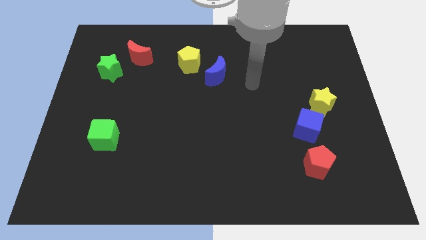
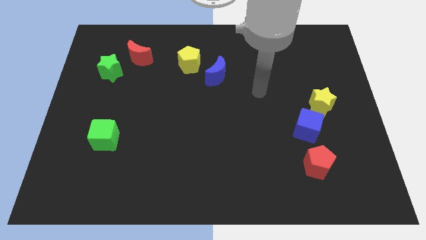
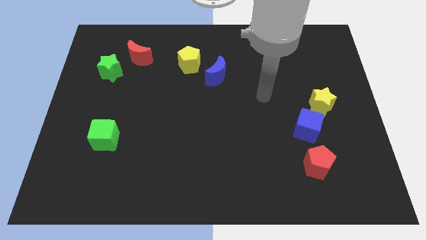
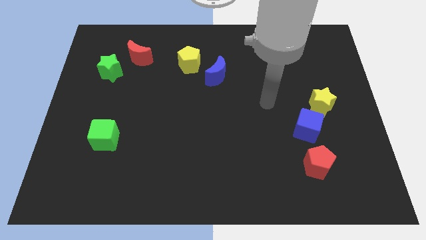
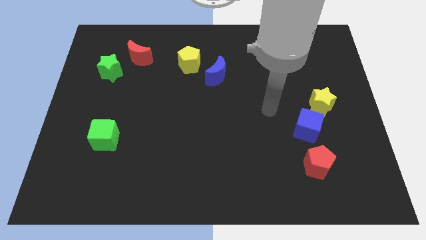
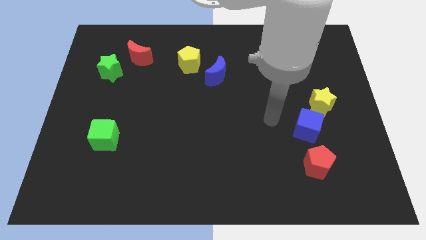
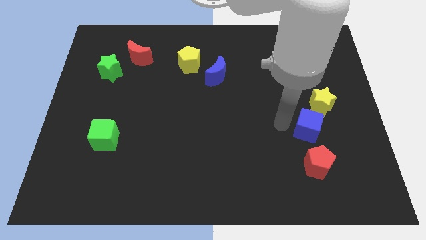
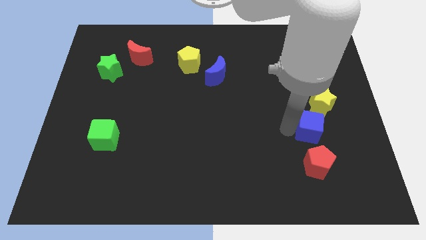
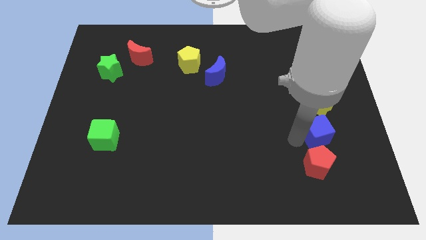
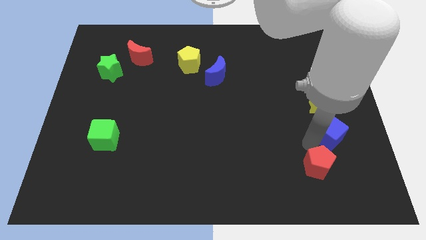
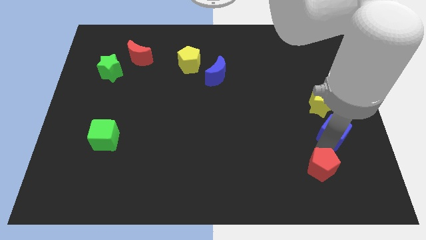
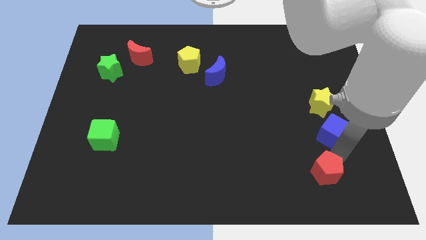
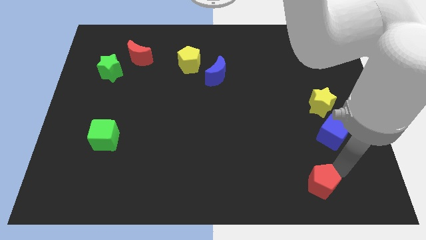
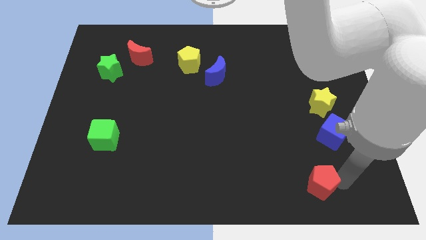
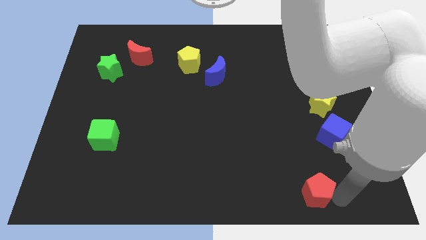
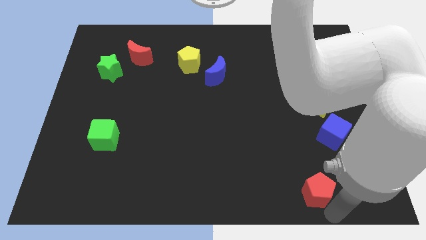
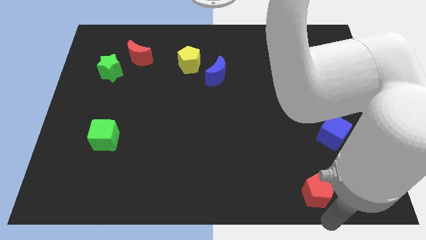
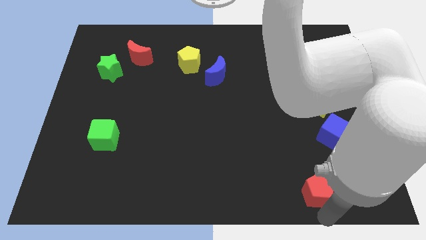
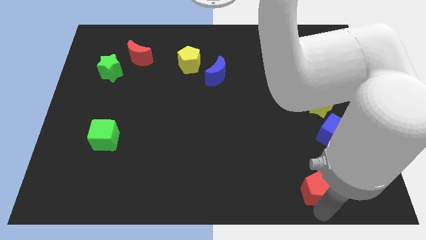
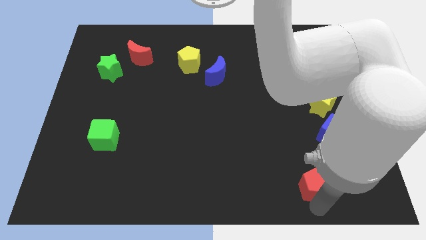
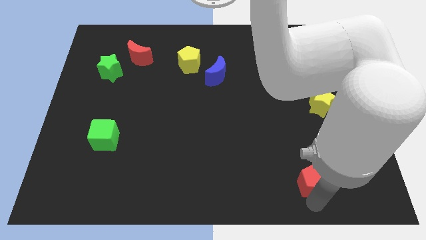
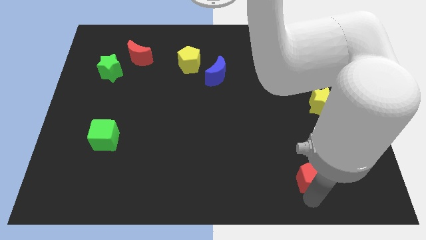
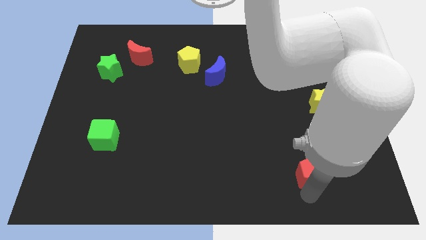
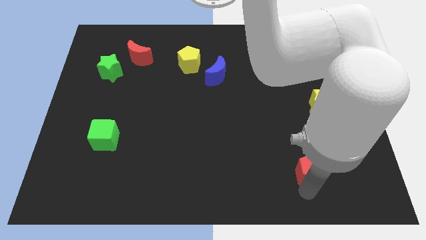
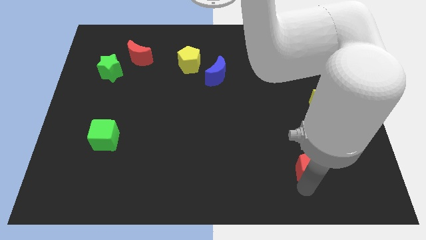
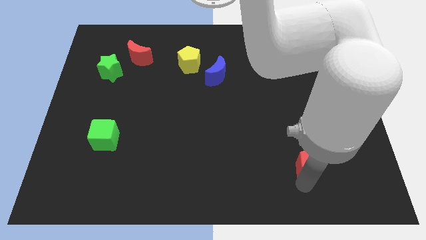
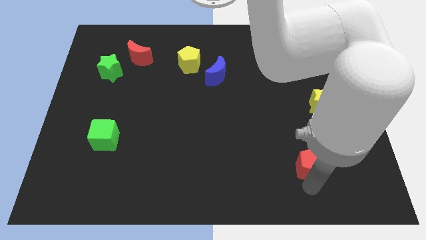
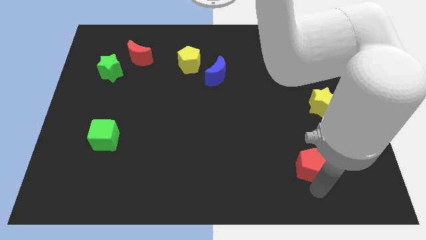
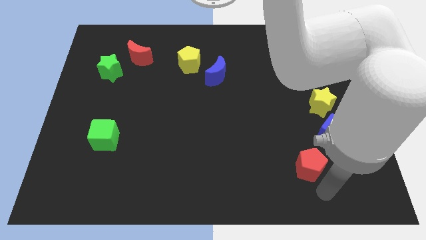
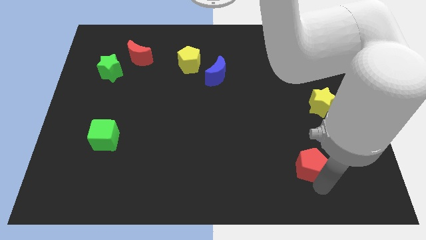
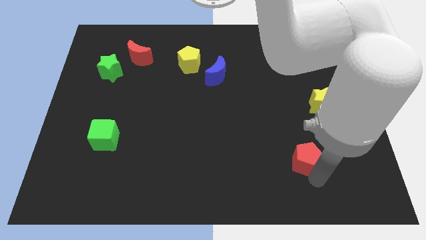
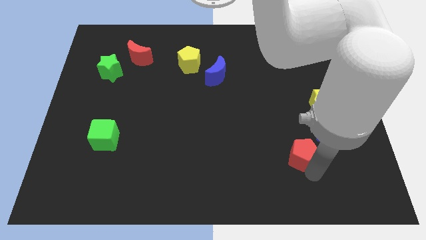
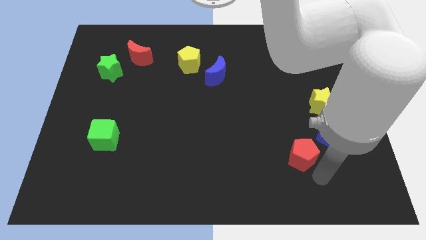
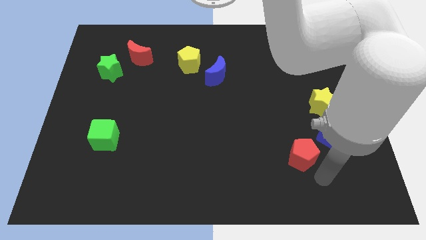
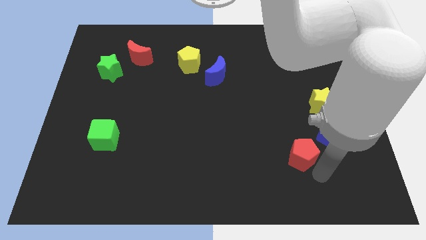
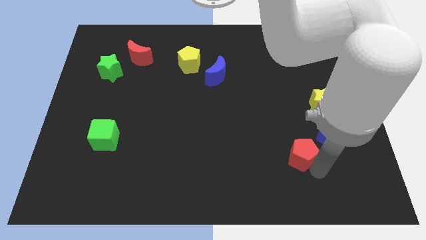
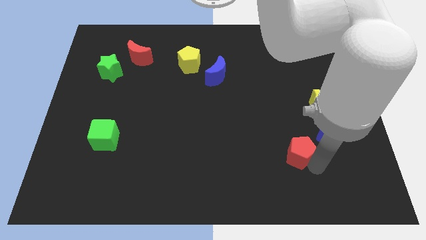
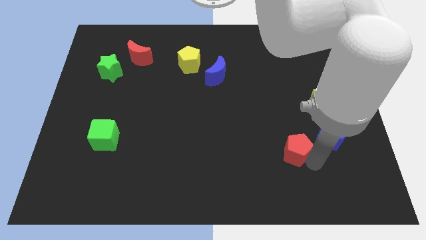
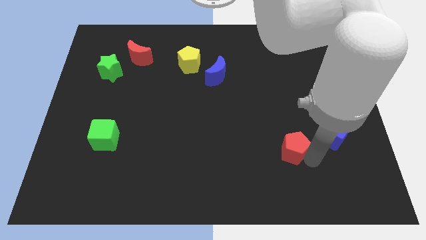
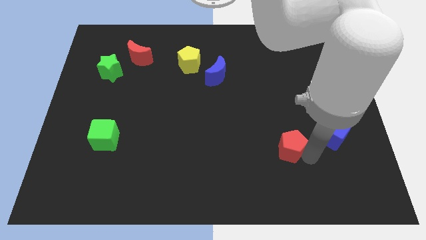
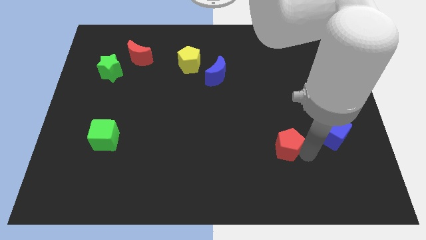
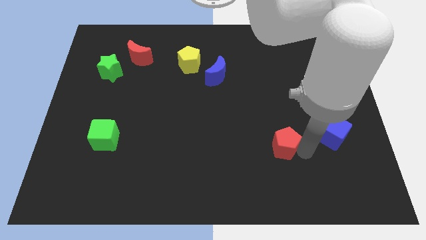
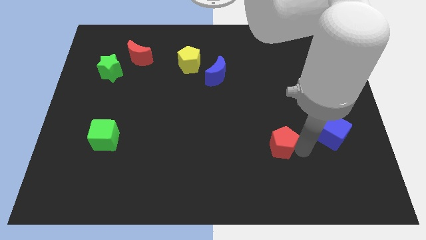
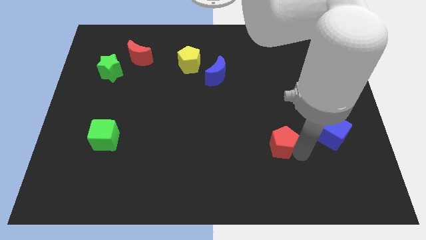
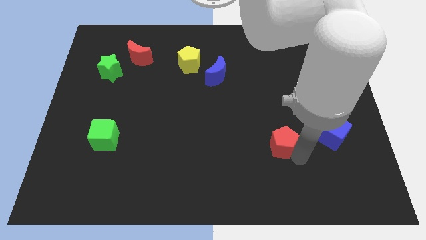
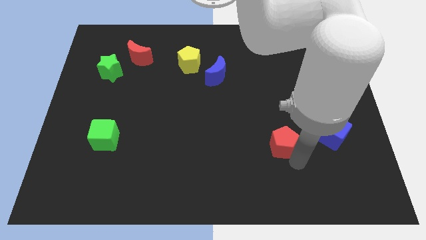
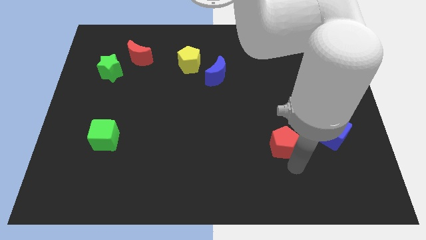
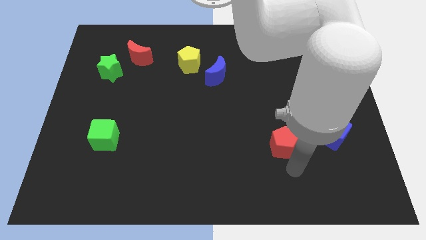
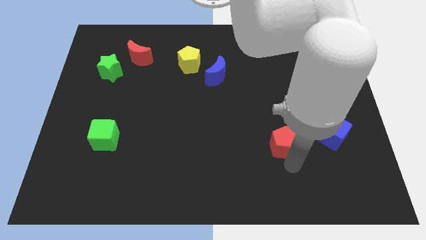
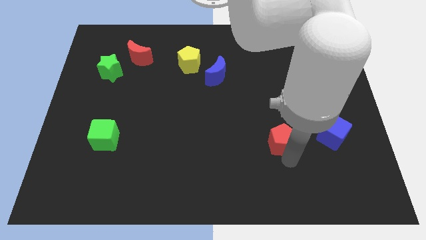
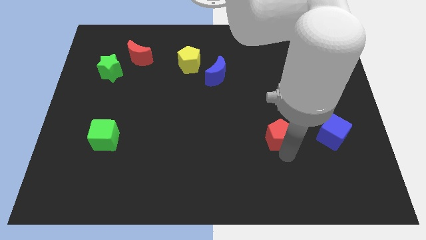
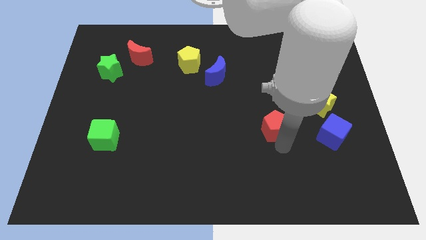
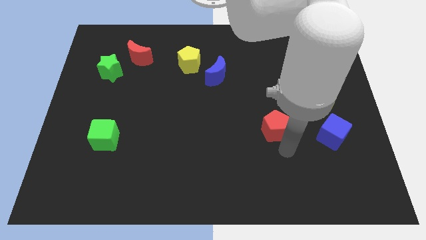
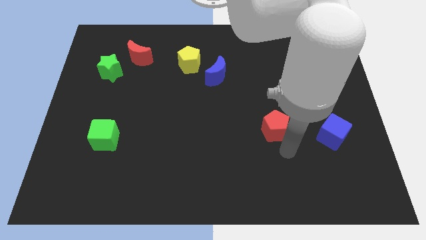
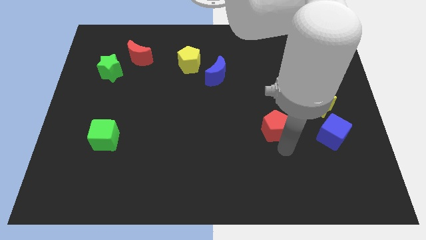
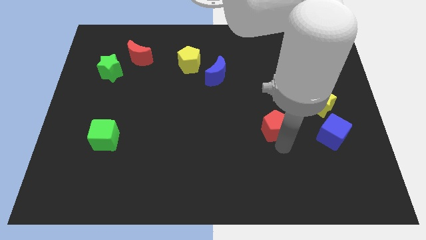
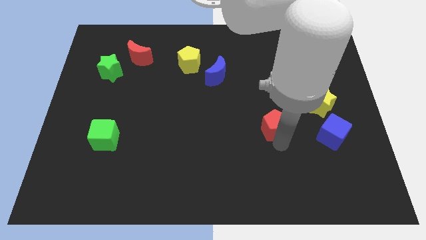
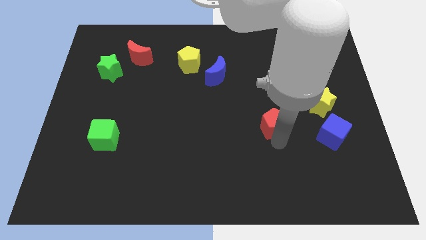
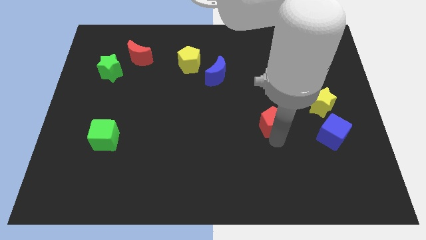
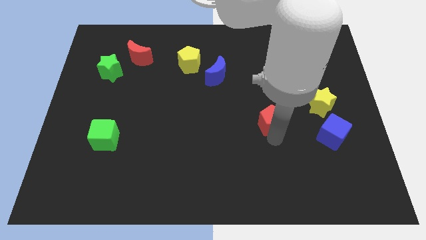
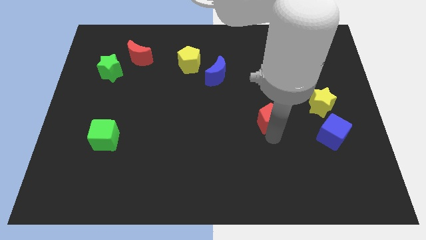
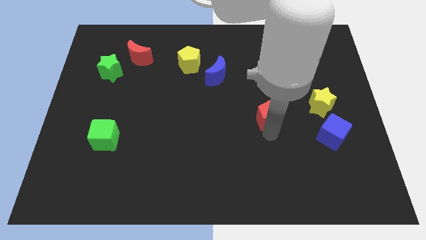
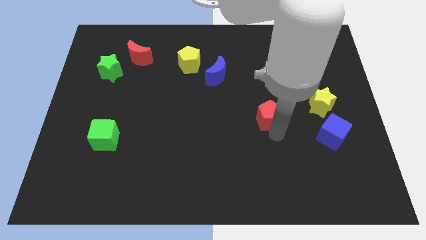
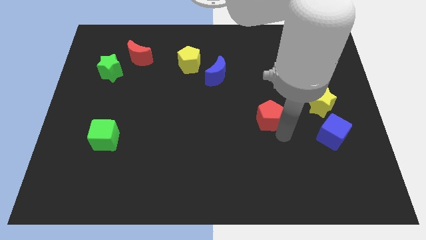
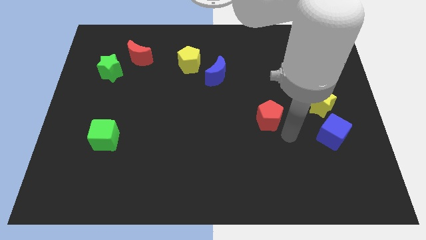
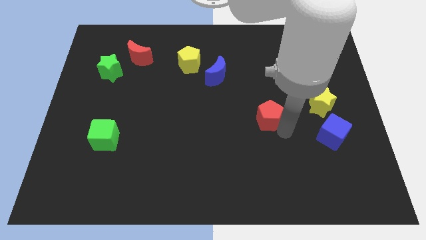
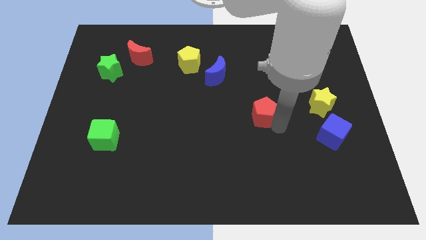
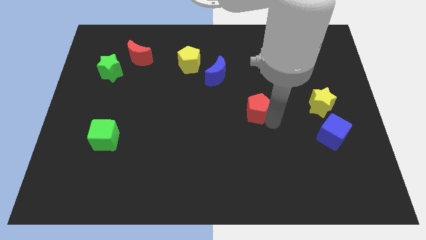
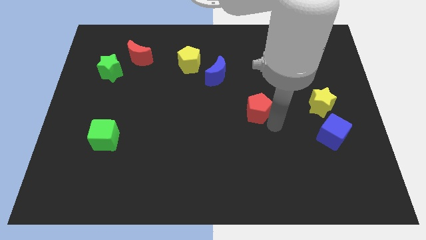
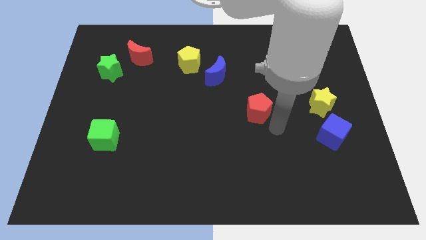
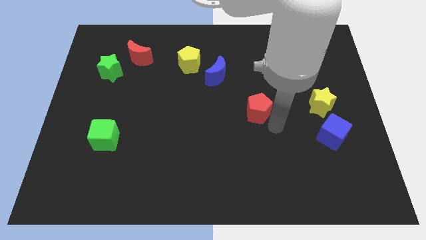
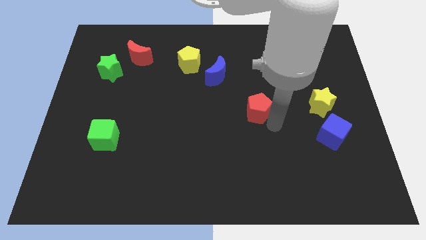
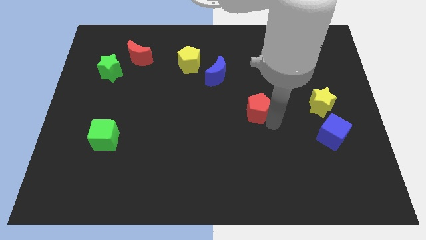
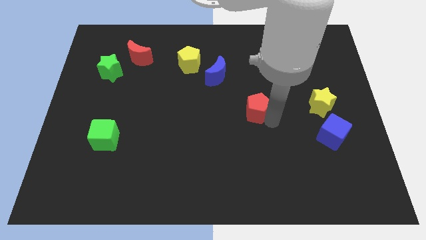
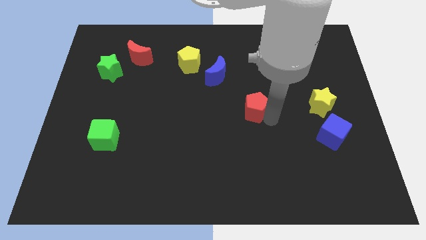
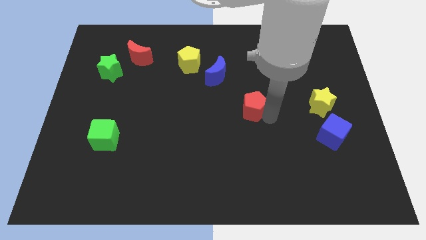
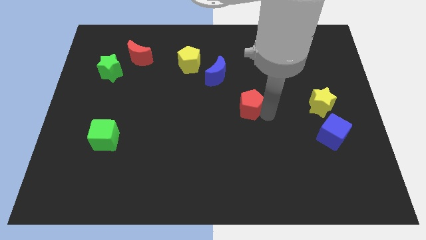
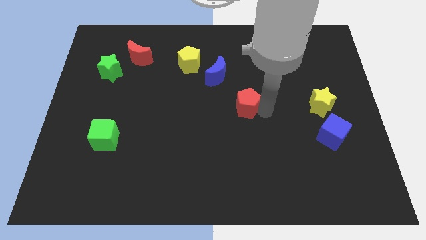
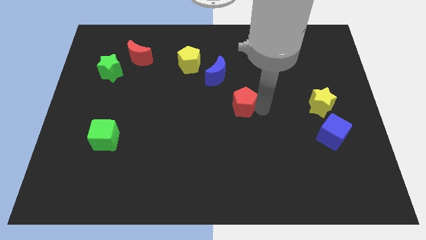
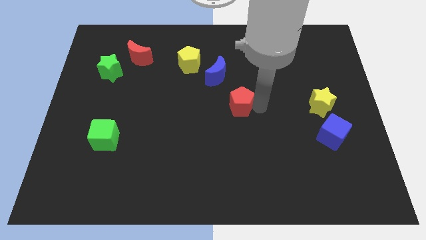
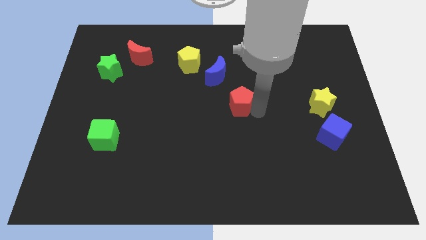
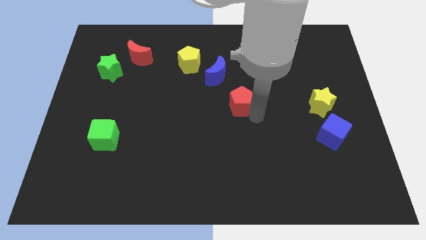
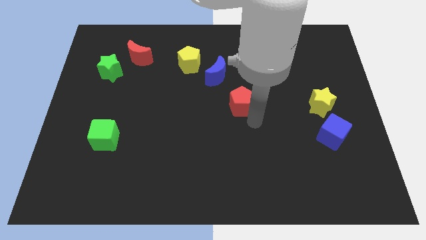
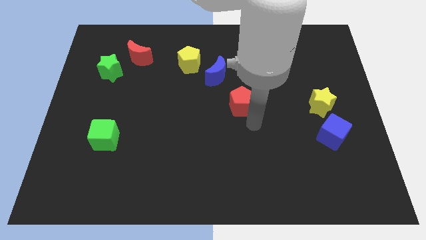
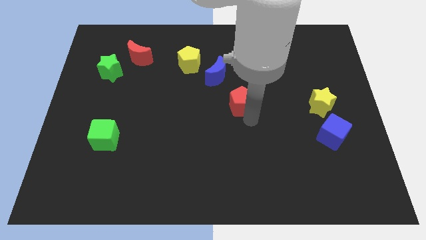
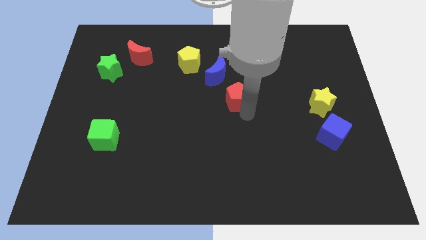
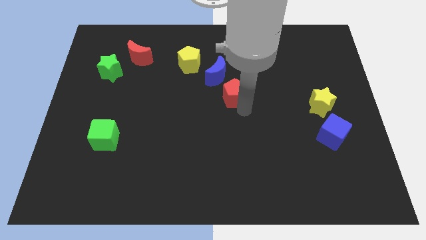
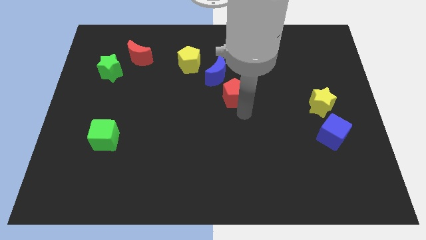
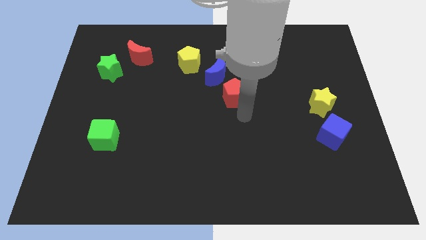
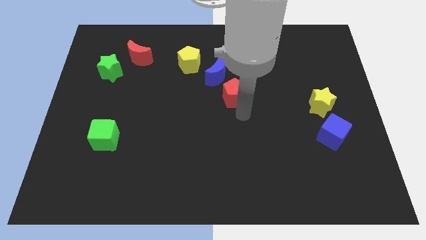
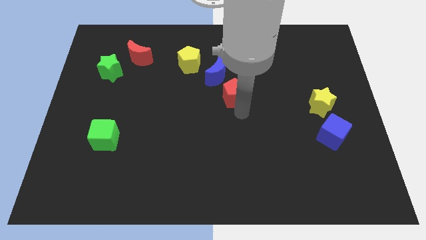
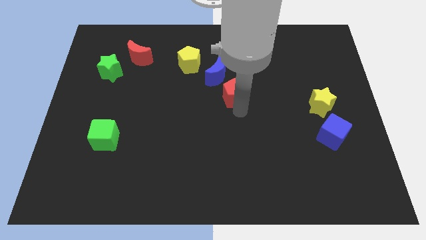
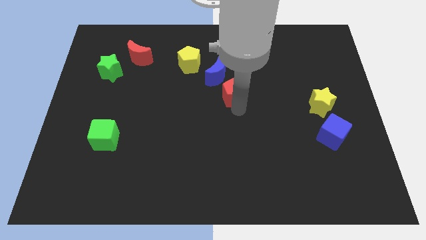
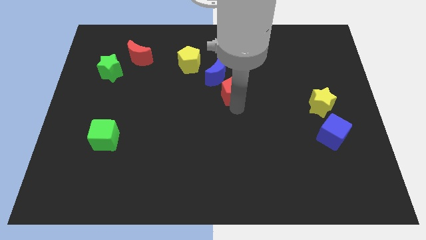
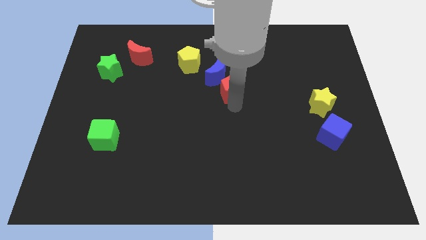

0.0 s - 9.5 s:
put the red pentagon to the blue moon
